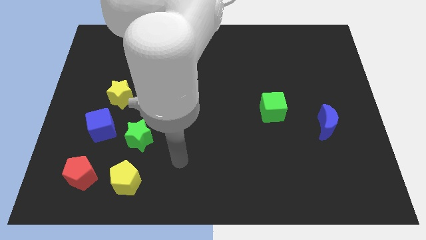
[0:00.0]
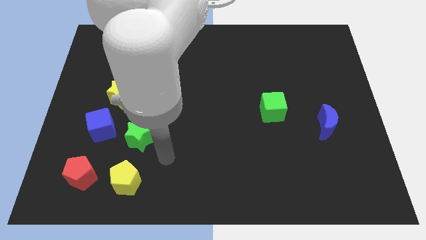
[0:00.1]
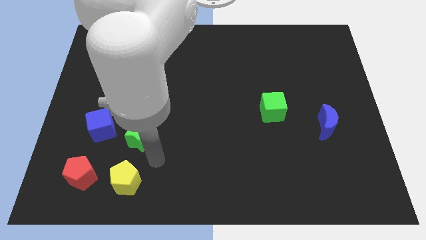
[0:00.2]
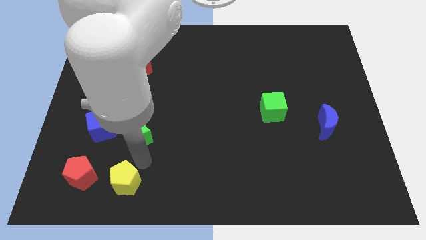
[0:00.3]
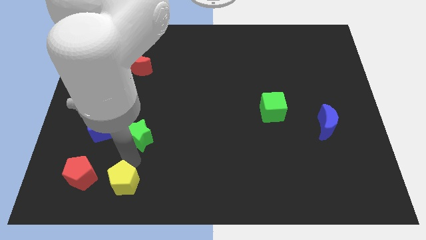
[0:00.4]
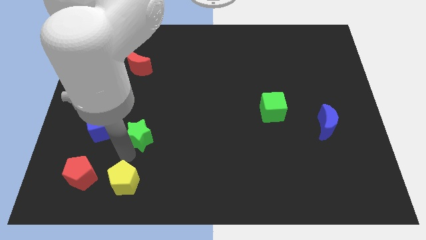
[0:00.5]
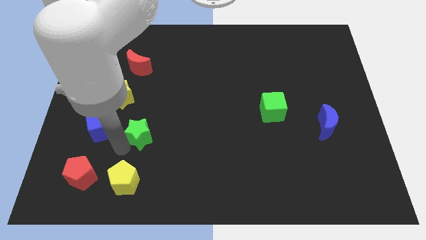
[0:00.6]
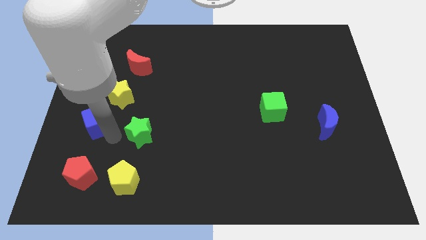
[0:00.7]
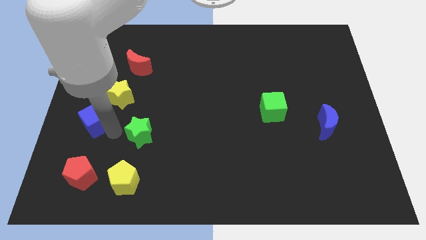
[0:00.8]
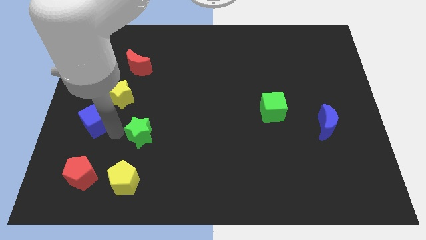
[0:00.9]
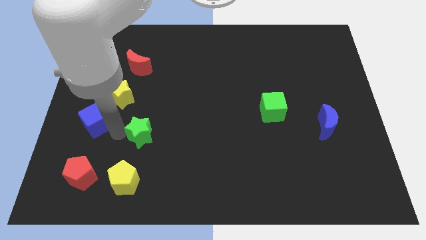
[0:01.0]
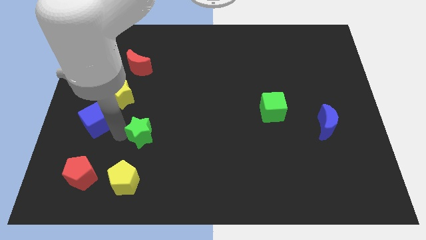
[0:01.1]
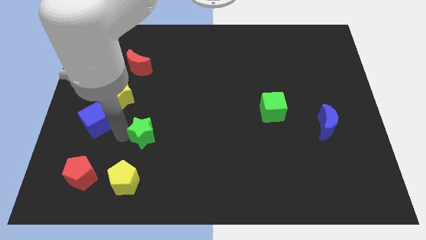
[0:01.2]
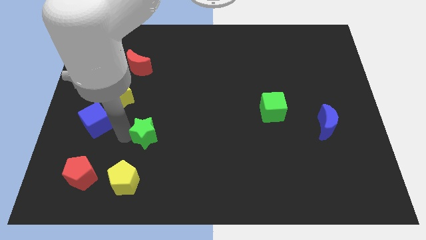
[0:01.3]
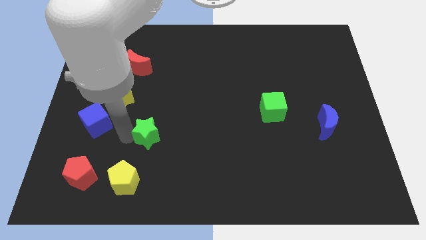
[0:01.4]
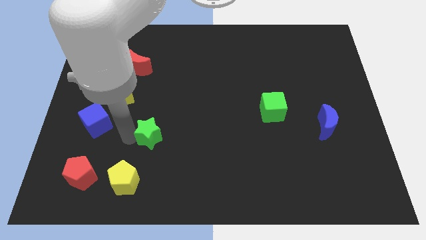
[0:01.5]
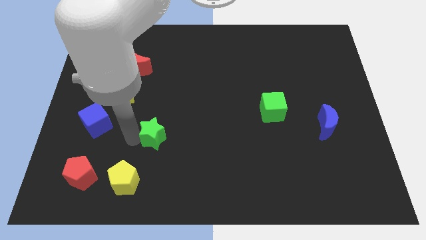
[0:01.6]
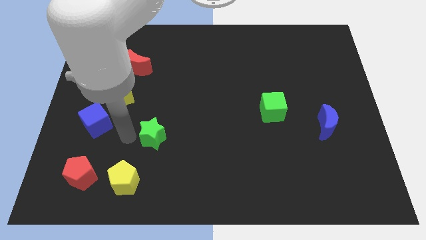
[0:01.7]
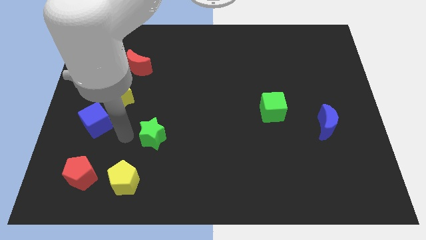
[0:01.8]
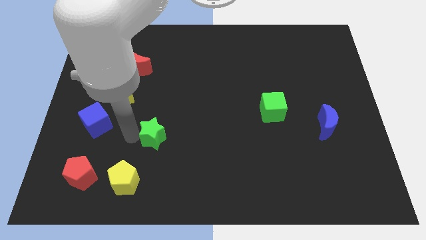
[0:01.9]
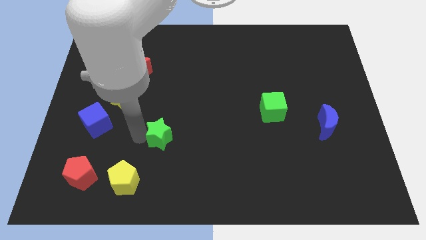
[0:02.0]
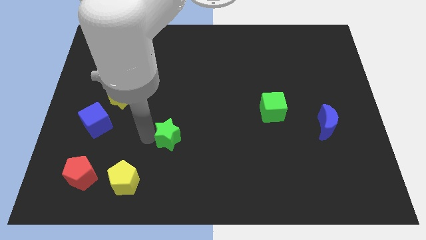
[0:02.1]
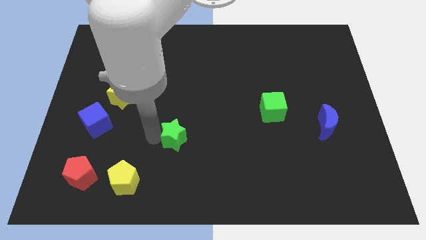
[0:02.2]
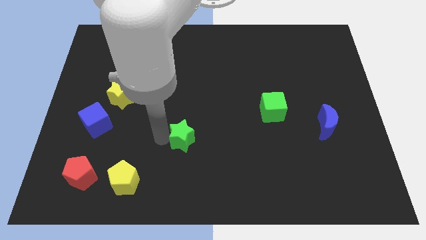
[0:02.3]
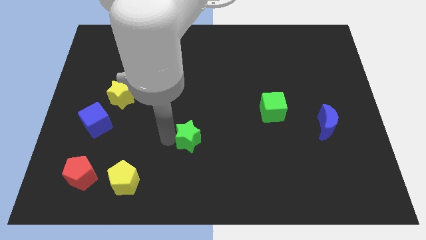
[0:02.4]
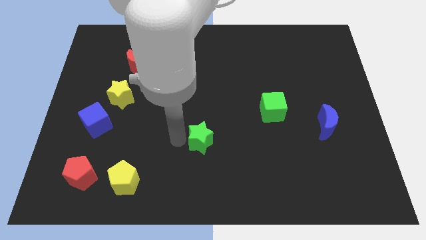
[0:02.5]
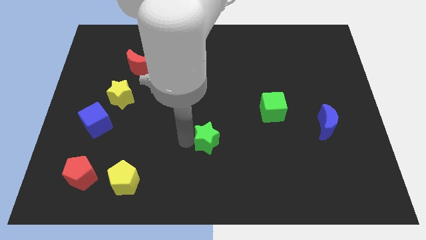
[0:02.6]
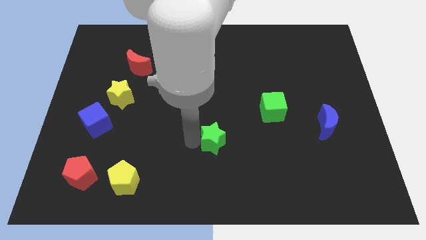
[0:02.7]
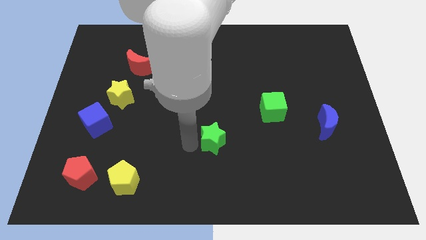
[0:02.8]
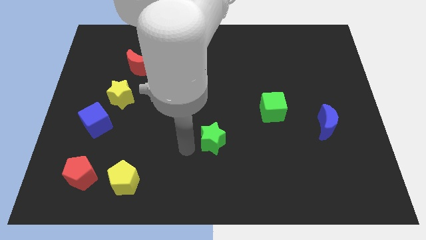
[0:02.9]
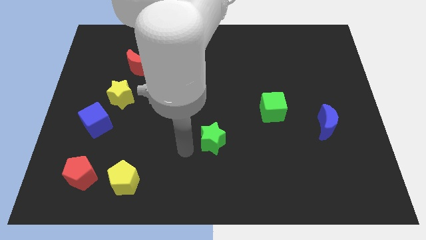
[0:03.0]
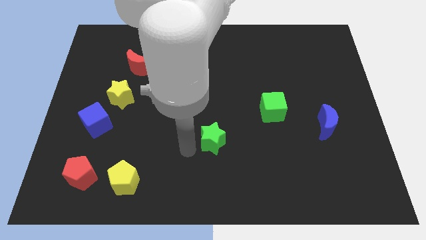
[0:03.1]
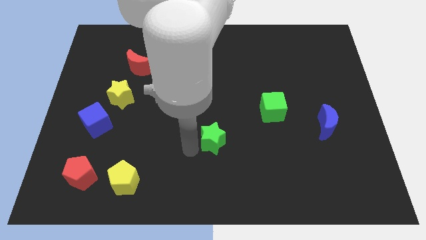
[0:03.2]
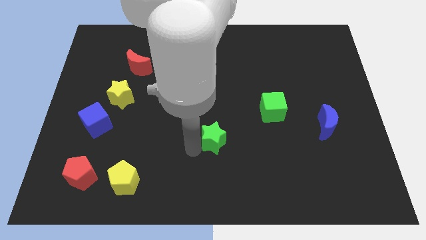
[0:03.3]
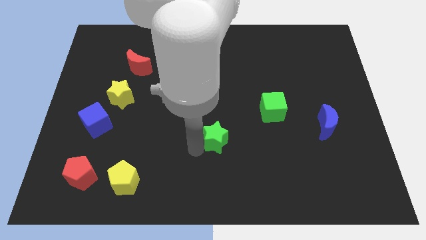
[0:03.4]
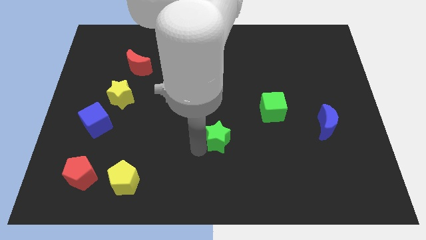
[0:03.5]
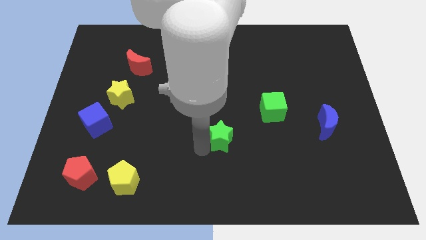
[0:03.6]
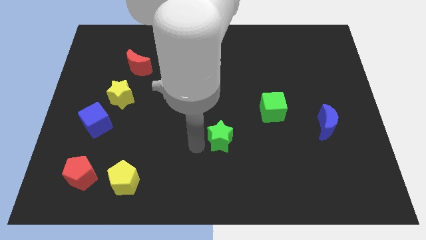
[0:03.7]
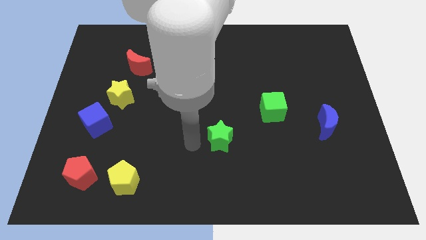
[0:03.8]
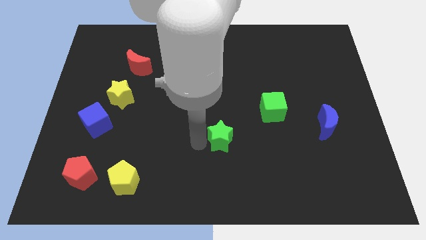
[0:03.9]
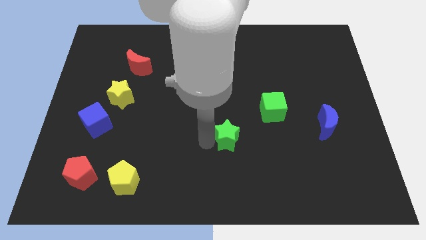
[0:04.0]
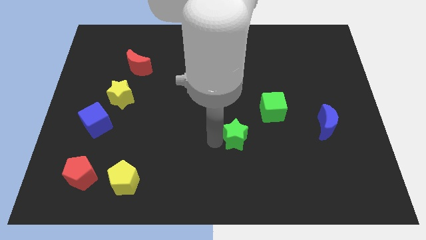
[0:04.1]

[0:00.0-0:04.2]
slide the green star to the right

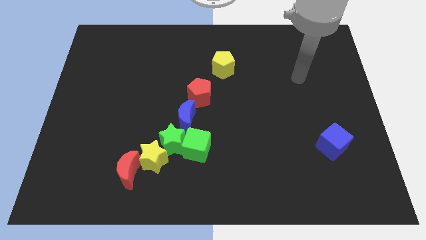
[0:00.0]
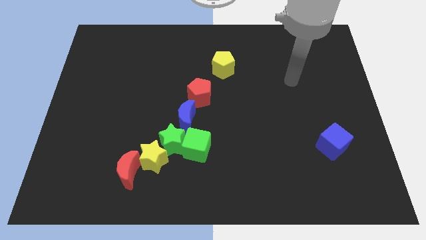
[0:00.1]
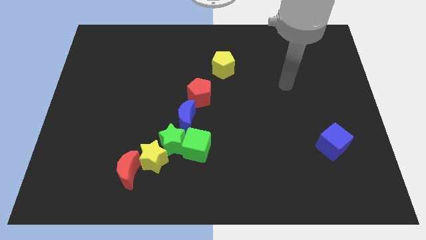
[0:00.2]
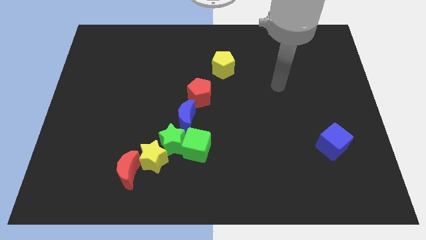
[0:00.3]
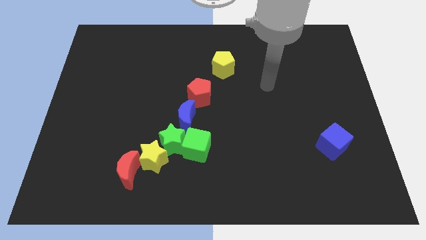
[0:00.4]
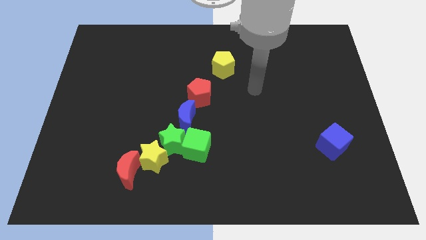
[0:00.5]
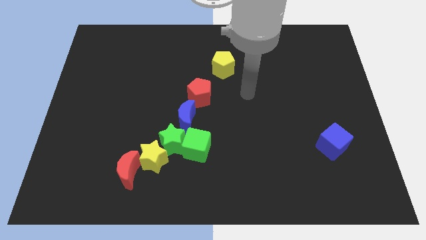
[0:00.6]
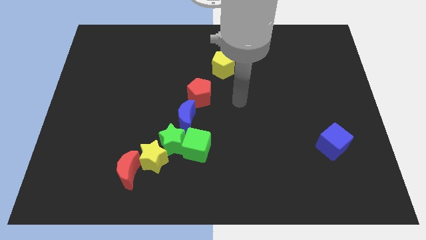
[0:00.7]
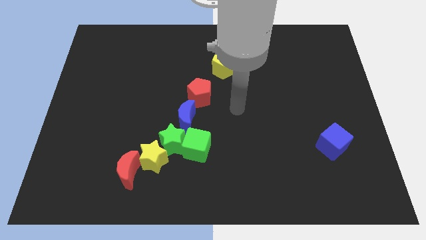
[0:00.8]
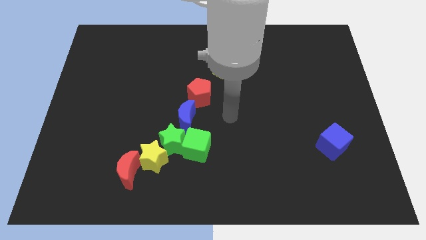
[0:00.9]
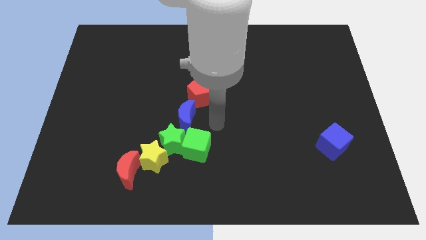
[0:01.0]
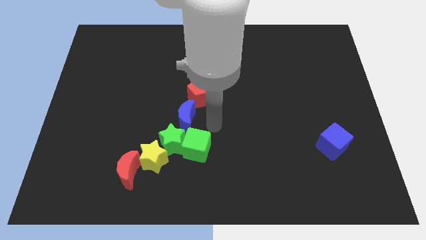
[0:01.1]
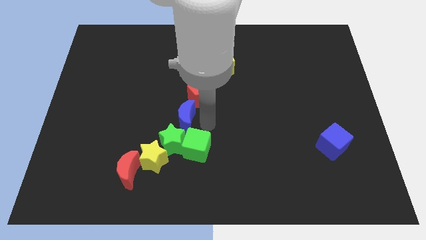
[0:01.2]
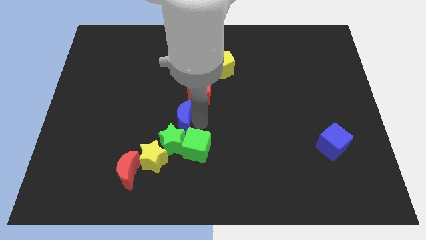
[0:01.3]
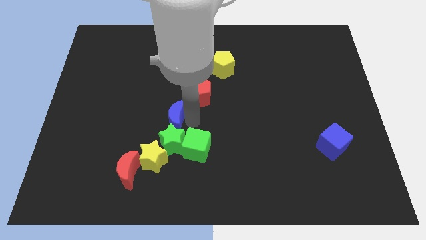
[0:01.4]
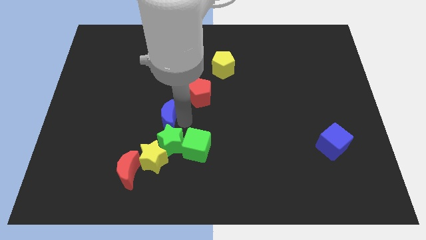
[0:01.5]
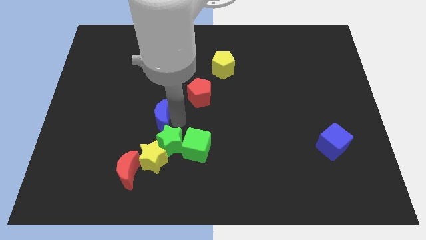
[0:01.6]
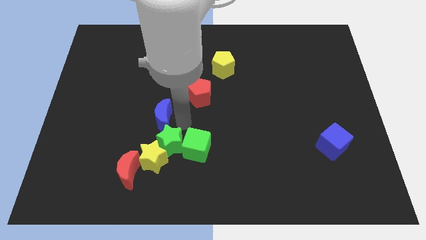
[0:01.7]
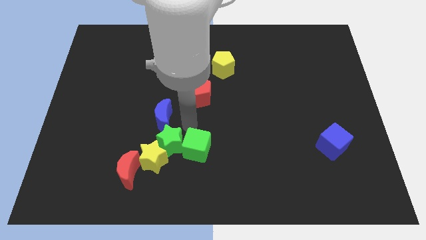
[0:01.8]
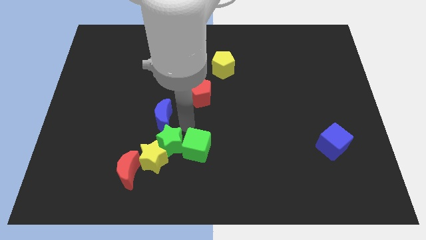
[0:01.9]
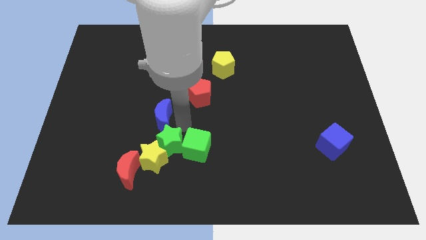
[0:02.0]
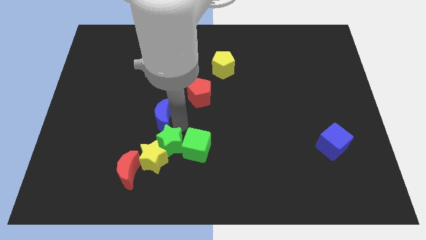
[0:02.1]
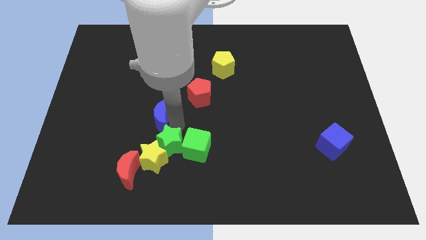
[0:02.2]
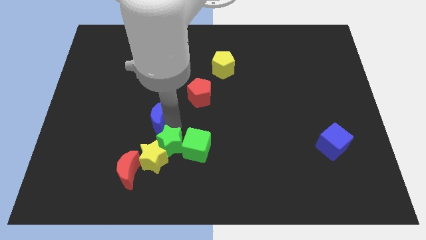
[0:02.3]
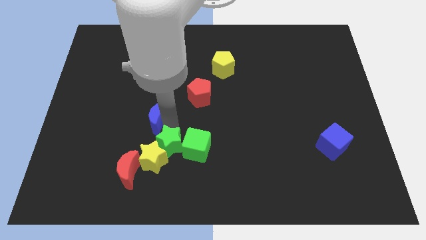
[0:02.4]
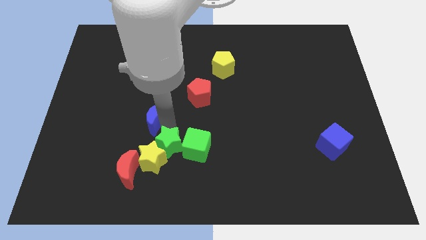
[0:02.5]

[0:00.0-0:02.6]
push the blue moon to the left a bit

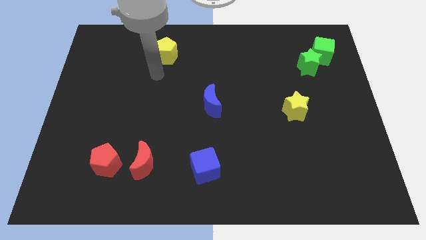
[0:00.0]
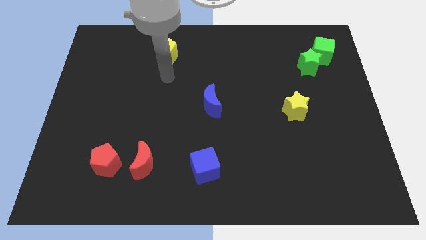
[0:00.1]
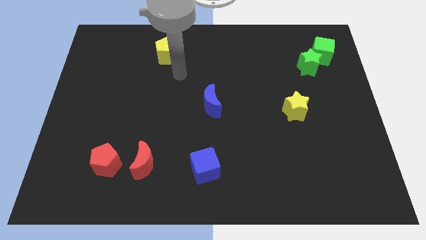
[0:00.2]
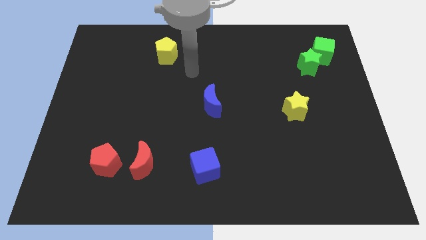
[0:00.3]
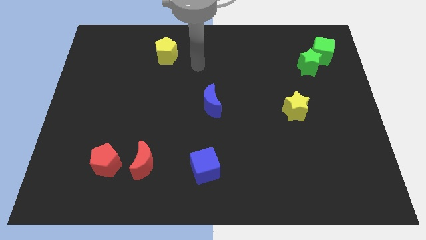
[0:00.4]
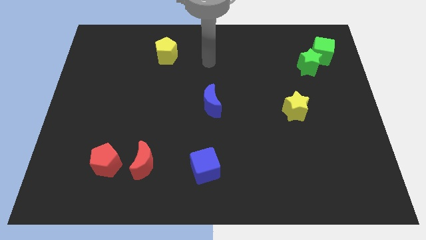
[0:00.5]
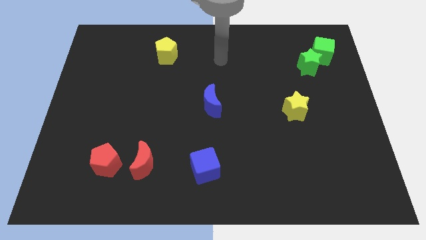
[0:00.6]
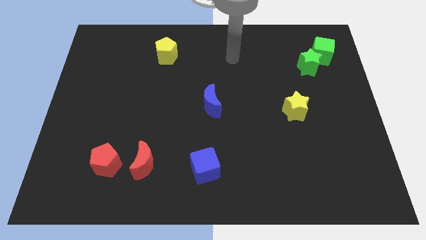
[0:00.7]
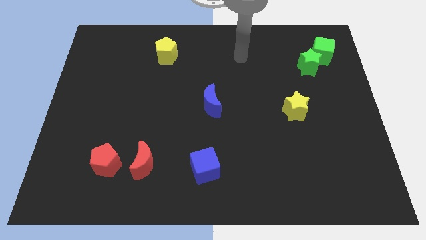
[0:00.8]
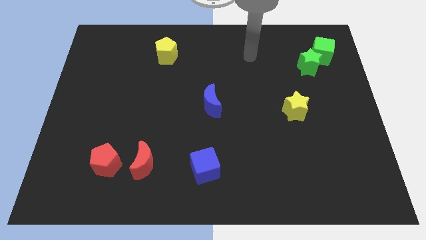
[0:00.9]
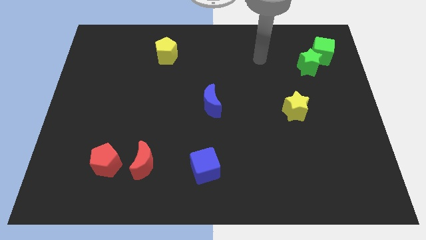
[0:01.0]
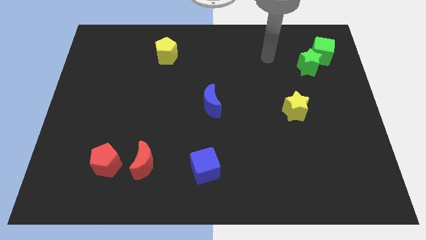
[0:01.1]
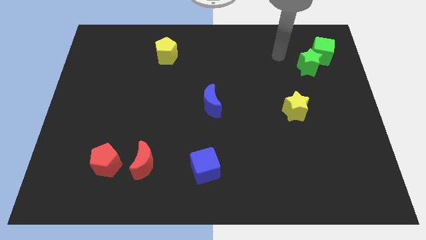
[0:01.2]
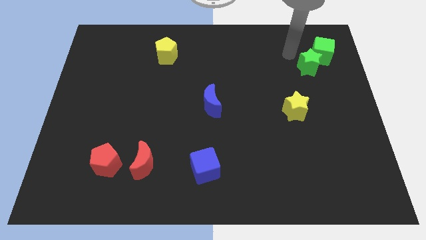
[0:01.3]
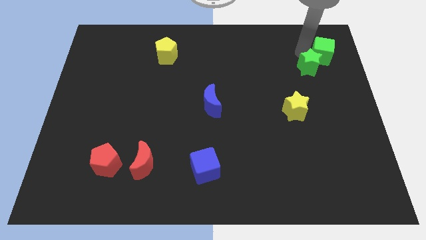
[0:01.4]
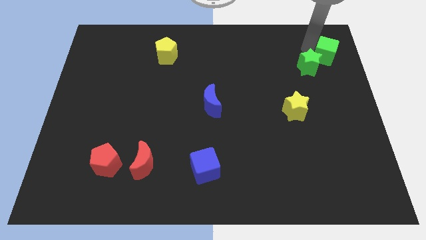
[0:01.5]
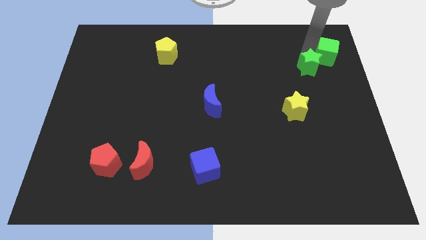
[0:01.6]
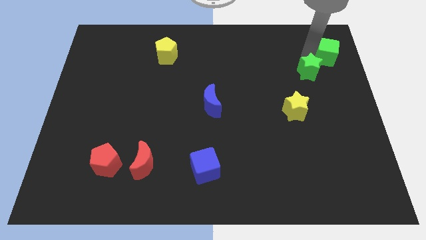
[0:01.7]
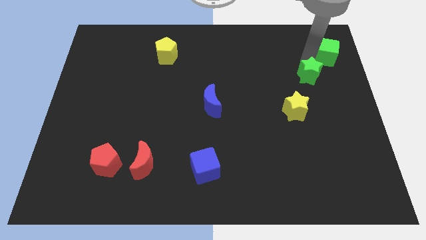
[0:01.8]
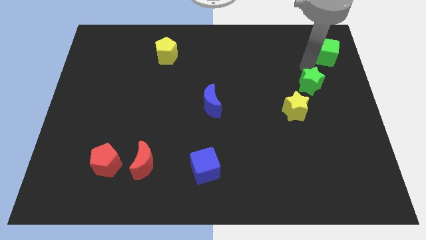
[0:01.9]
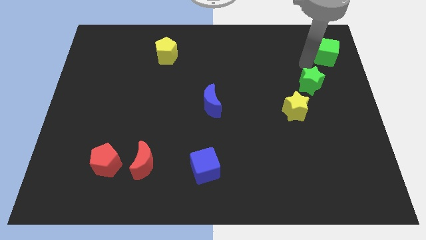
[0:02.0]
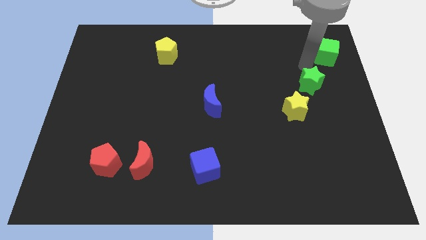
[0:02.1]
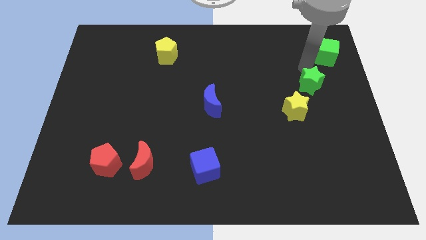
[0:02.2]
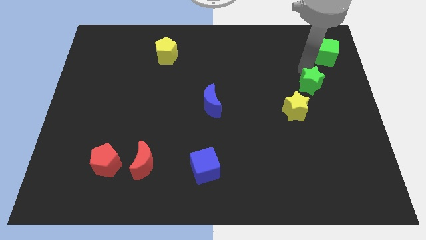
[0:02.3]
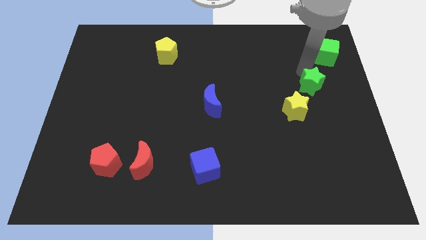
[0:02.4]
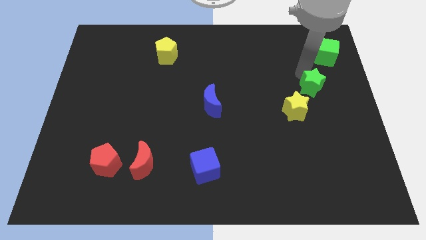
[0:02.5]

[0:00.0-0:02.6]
slide the green star down slightly
